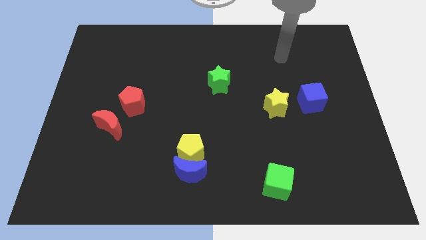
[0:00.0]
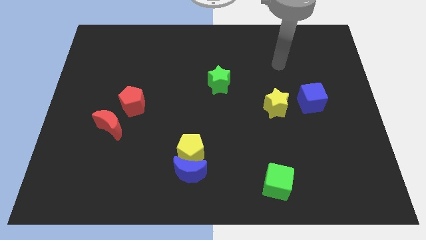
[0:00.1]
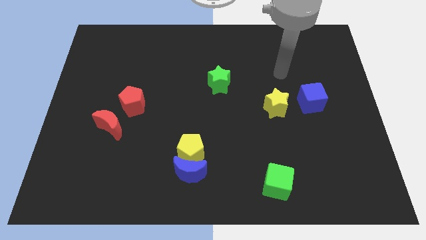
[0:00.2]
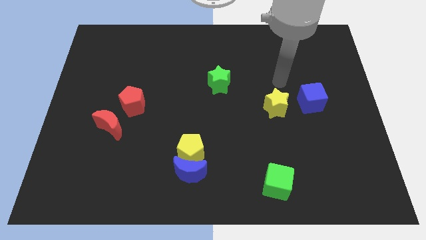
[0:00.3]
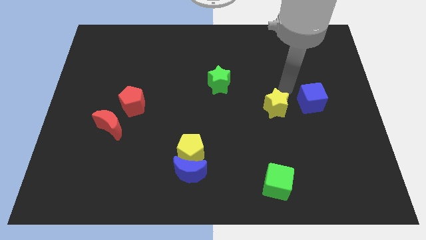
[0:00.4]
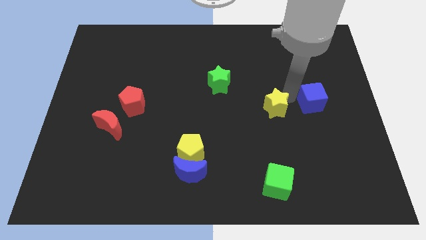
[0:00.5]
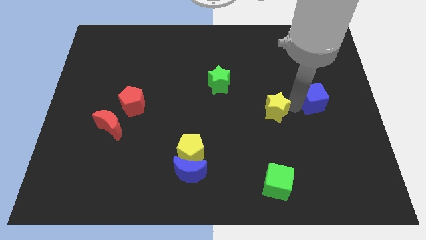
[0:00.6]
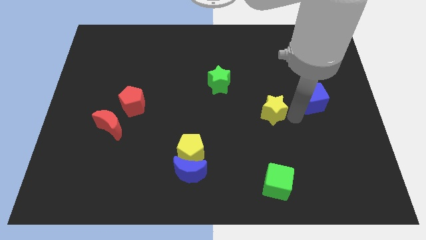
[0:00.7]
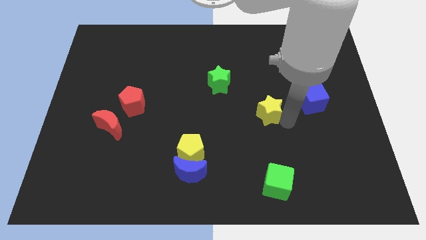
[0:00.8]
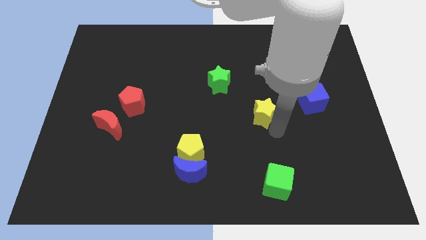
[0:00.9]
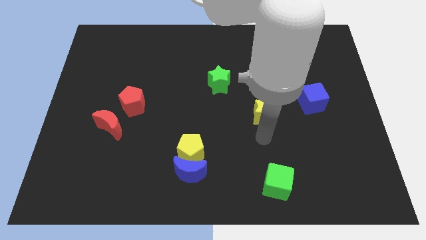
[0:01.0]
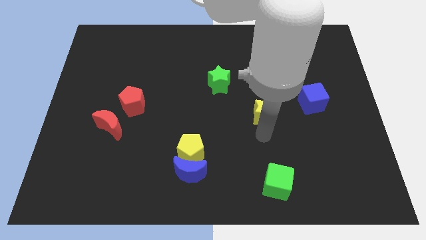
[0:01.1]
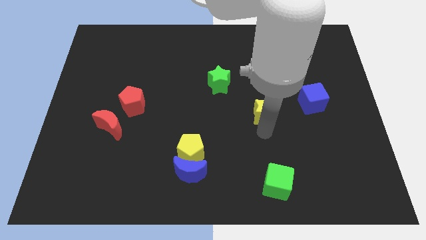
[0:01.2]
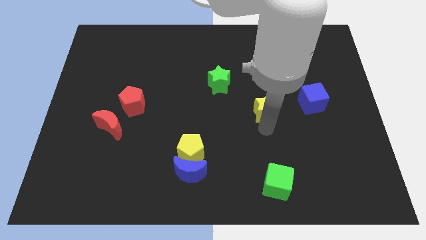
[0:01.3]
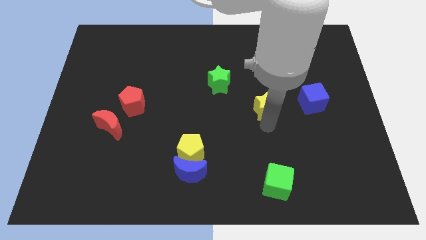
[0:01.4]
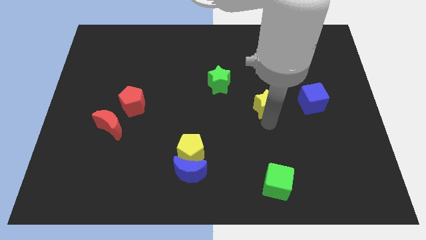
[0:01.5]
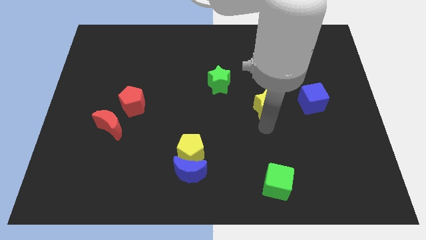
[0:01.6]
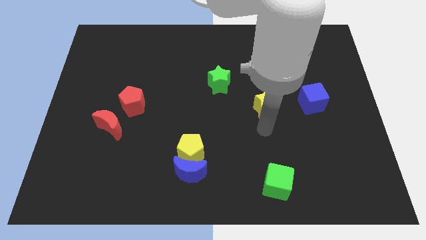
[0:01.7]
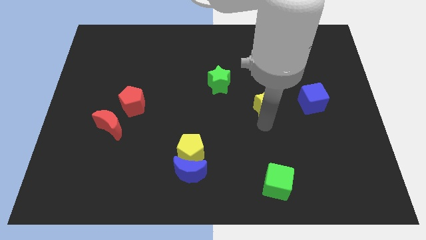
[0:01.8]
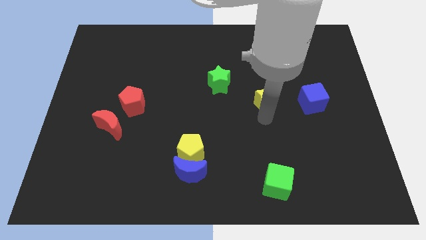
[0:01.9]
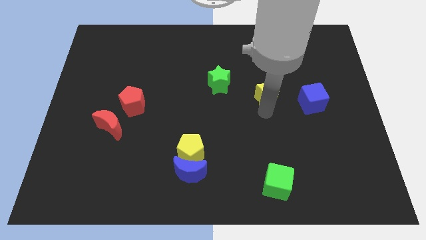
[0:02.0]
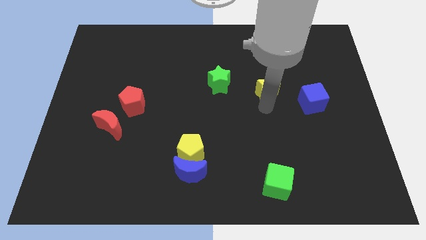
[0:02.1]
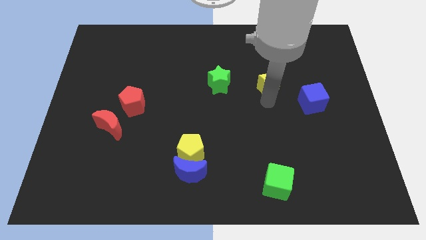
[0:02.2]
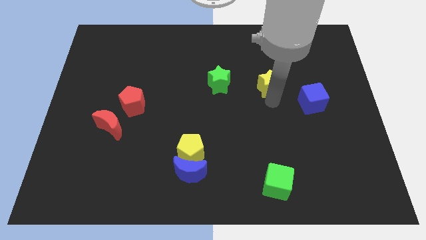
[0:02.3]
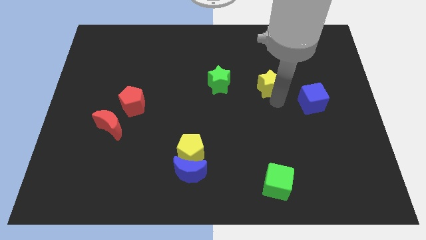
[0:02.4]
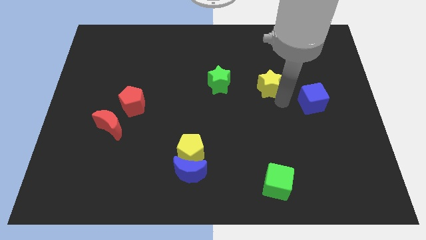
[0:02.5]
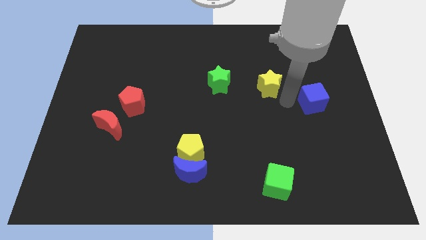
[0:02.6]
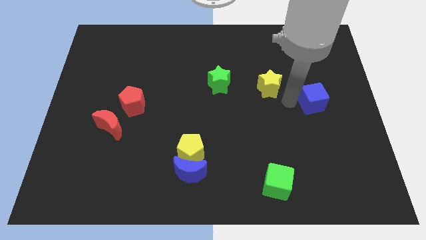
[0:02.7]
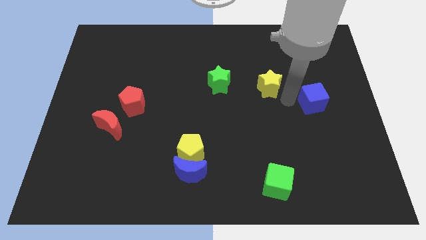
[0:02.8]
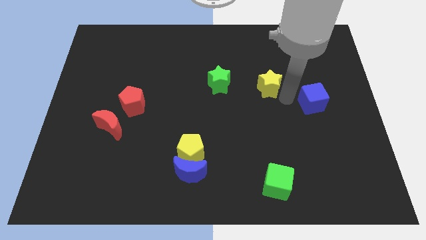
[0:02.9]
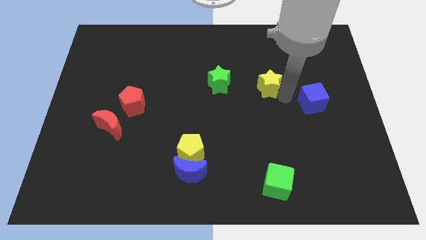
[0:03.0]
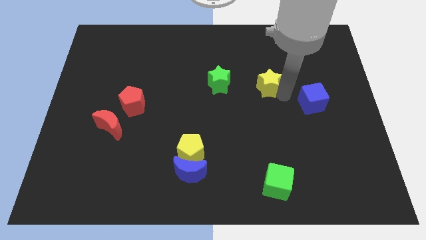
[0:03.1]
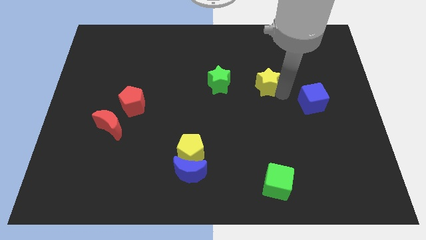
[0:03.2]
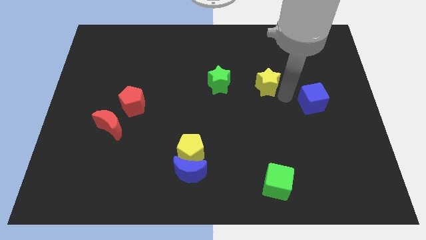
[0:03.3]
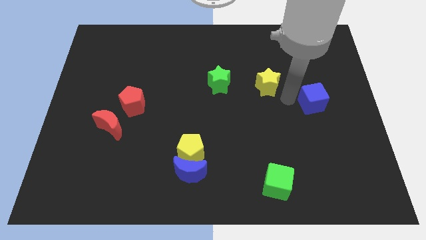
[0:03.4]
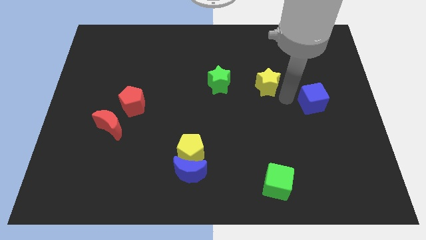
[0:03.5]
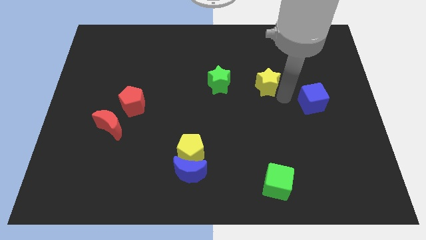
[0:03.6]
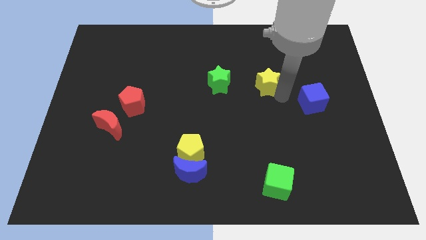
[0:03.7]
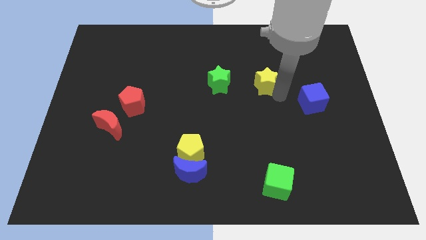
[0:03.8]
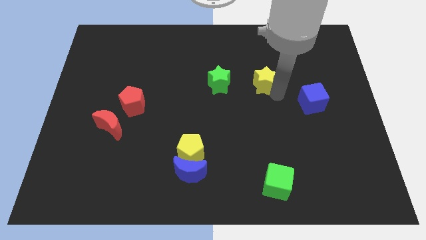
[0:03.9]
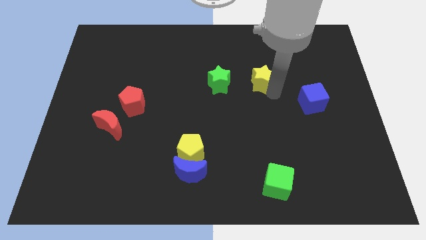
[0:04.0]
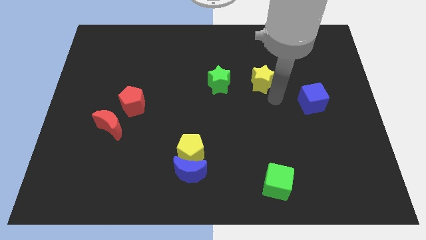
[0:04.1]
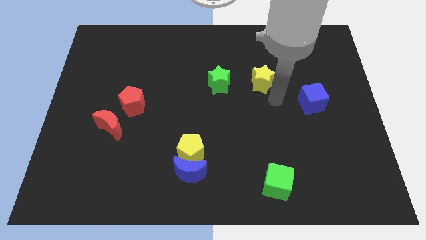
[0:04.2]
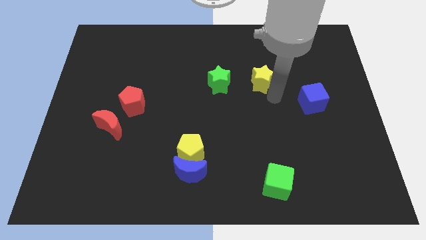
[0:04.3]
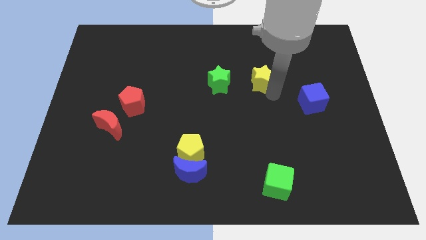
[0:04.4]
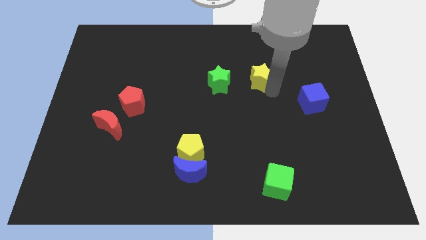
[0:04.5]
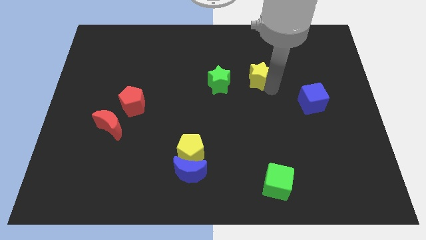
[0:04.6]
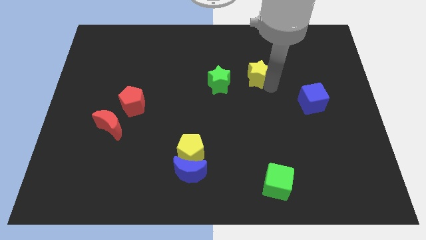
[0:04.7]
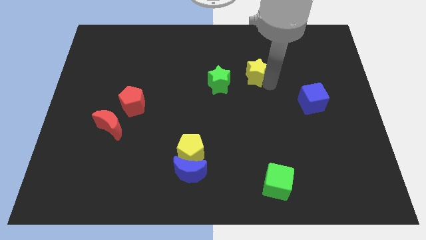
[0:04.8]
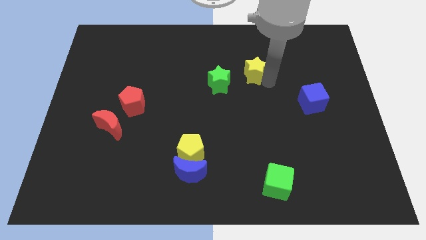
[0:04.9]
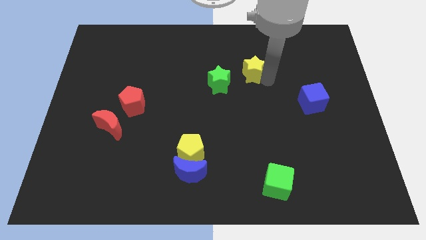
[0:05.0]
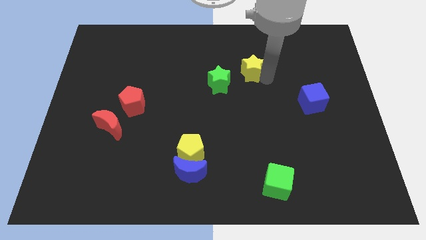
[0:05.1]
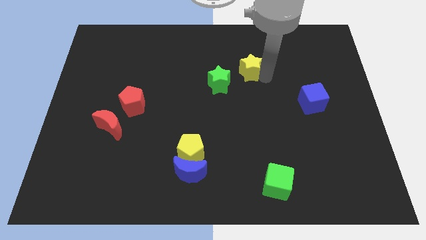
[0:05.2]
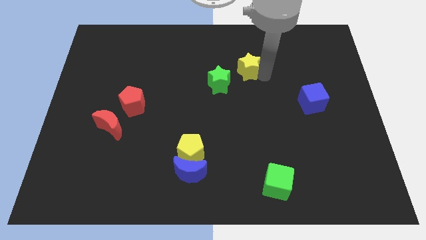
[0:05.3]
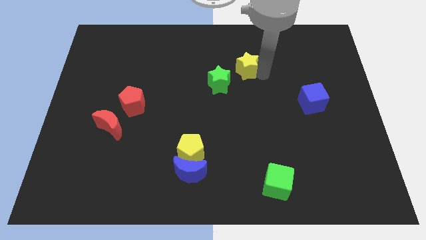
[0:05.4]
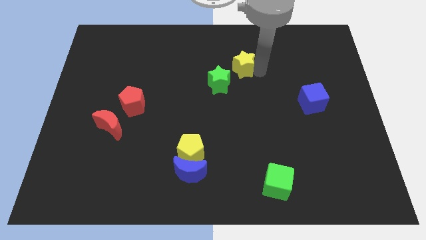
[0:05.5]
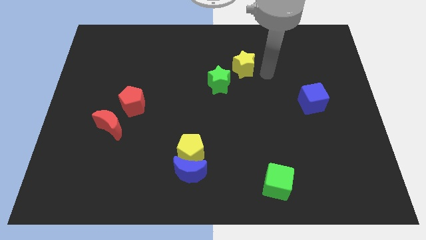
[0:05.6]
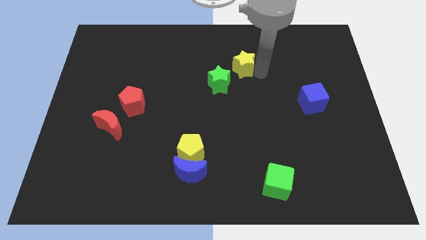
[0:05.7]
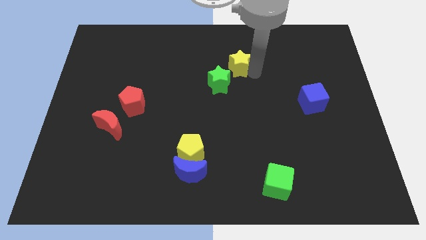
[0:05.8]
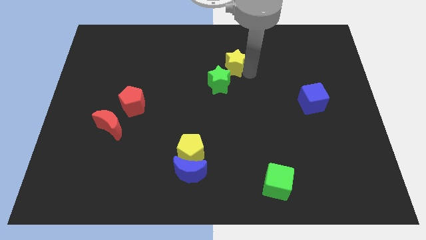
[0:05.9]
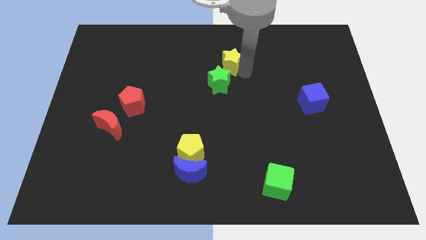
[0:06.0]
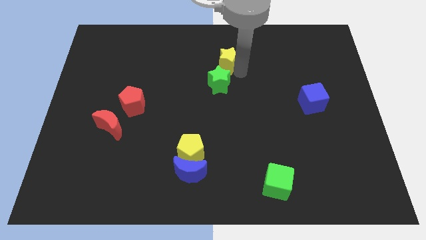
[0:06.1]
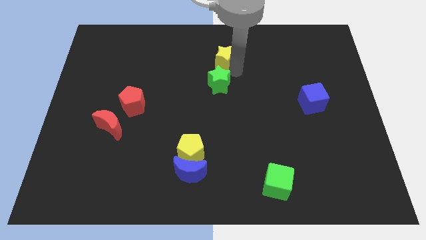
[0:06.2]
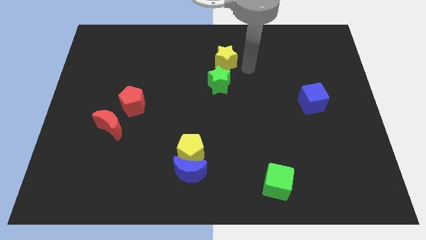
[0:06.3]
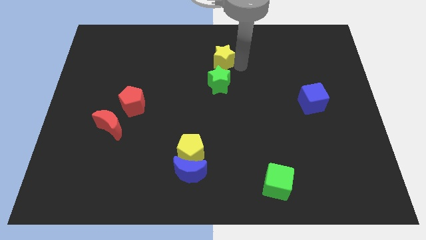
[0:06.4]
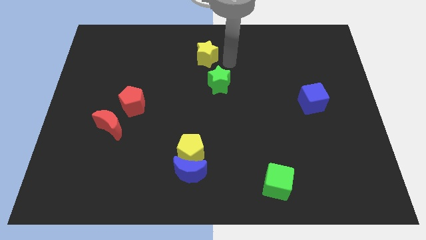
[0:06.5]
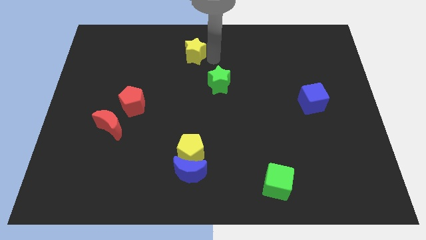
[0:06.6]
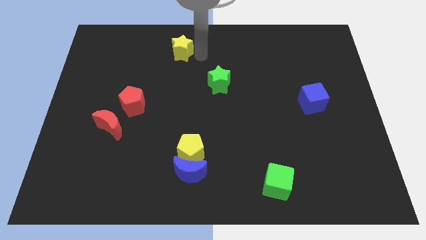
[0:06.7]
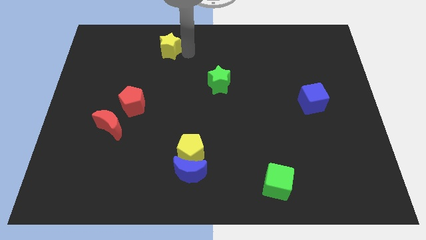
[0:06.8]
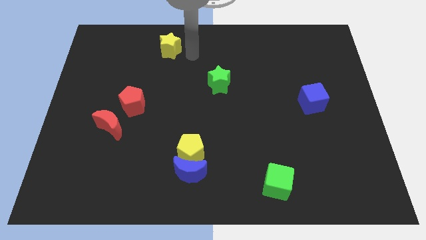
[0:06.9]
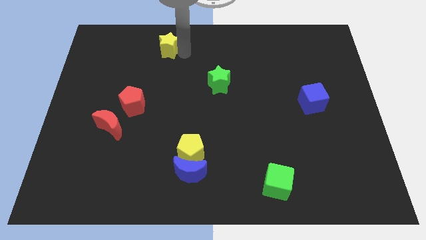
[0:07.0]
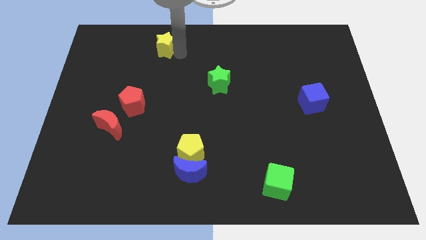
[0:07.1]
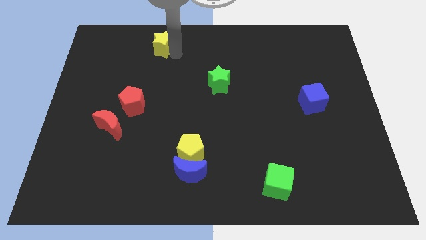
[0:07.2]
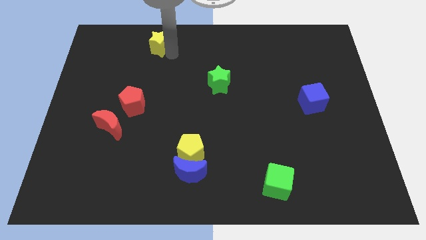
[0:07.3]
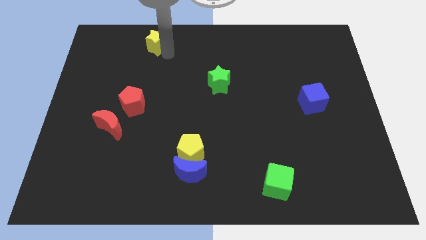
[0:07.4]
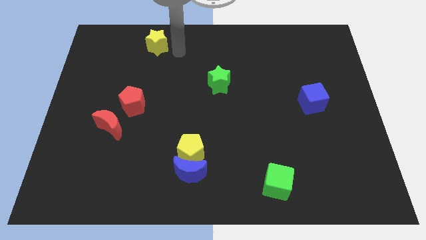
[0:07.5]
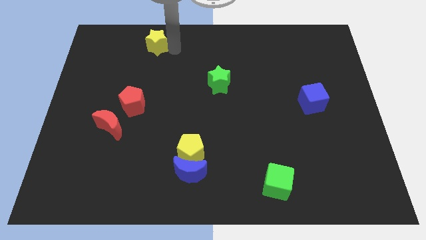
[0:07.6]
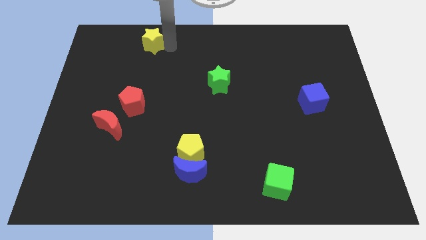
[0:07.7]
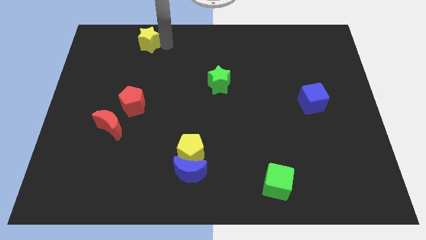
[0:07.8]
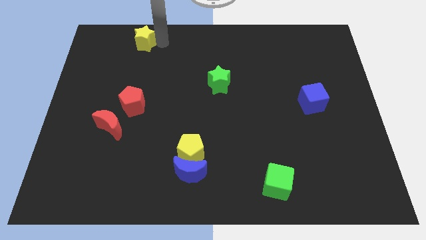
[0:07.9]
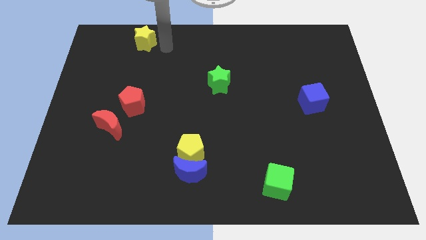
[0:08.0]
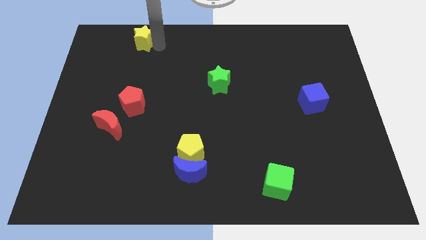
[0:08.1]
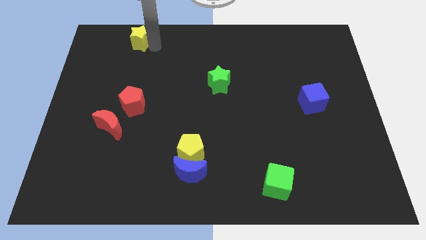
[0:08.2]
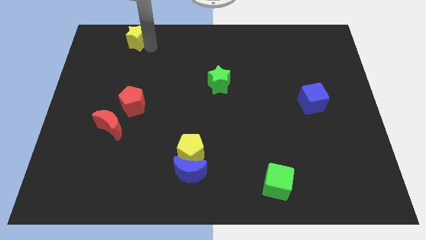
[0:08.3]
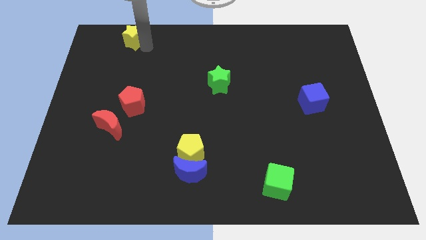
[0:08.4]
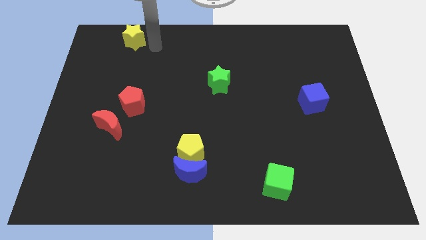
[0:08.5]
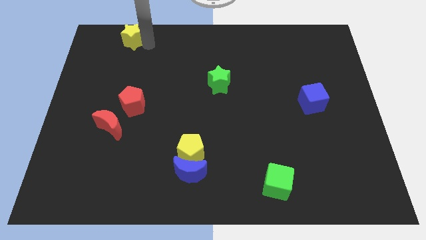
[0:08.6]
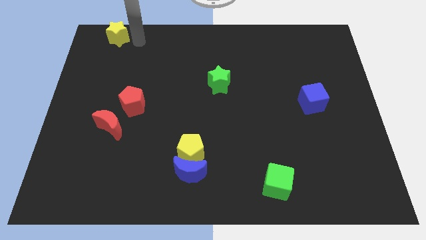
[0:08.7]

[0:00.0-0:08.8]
slide the yellow star to the top left of the board
